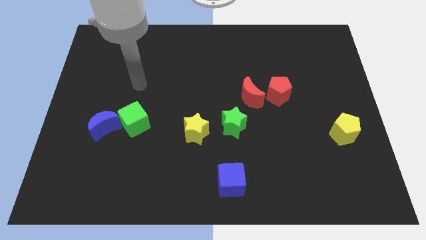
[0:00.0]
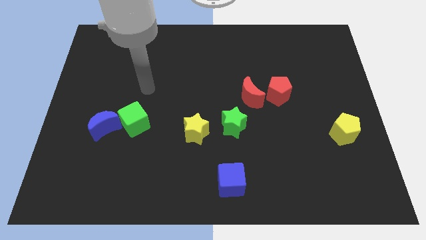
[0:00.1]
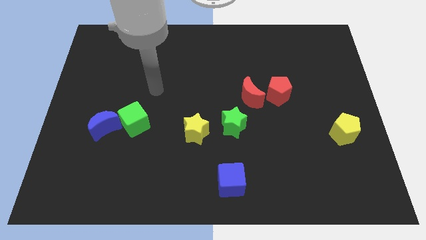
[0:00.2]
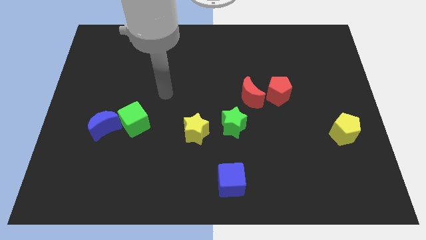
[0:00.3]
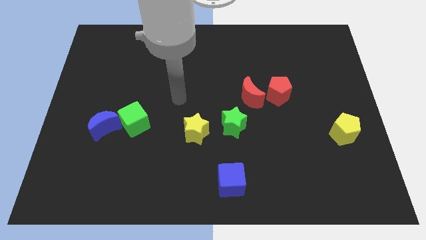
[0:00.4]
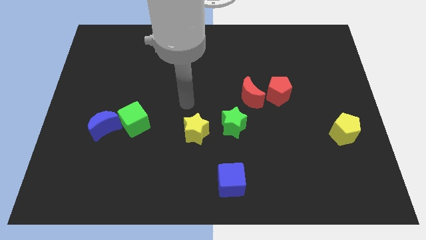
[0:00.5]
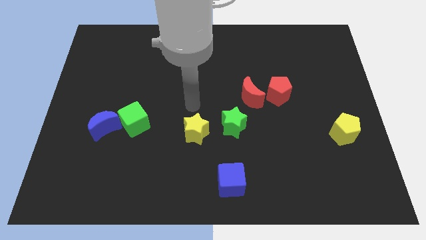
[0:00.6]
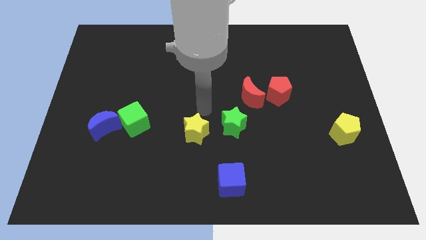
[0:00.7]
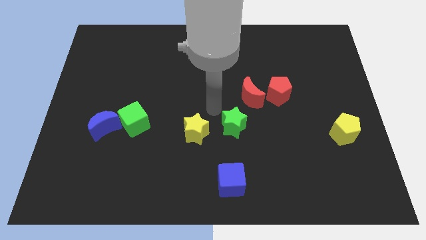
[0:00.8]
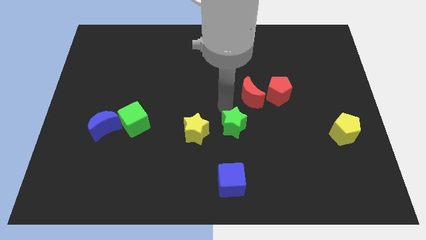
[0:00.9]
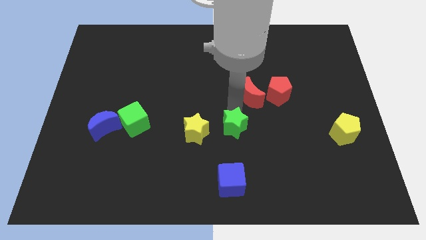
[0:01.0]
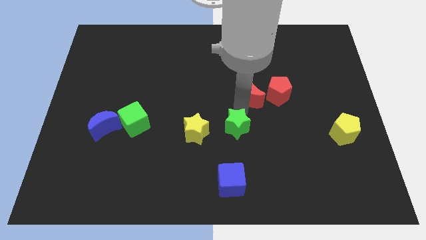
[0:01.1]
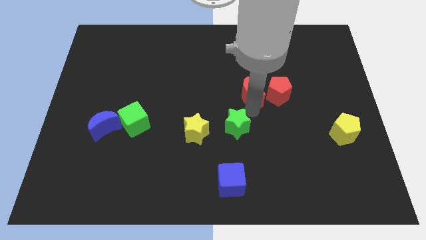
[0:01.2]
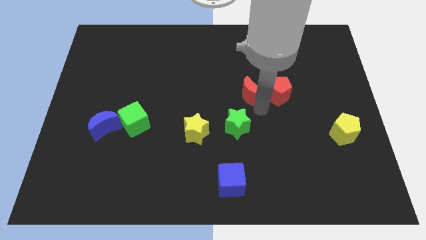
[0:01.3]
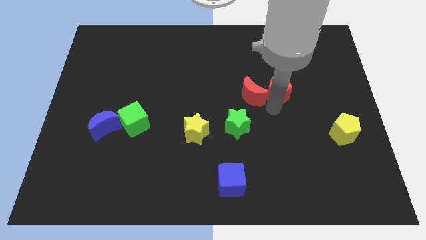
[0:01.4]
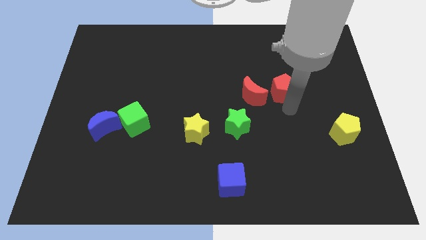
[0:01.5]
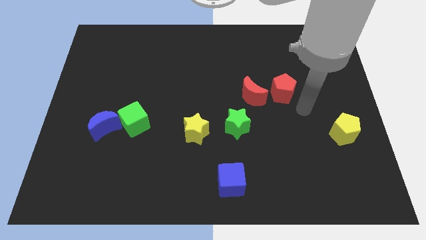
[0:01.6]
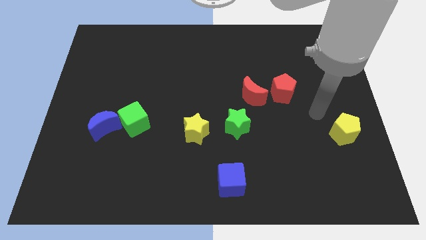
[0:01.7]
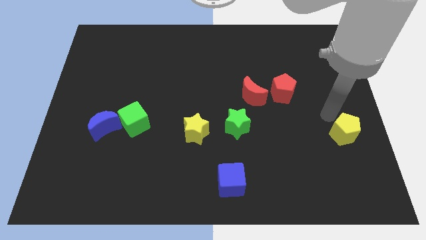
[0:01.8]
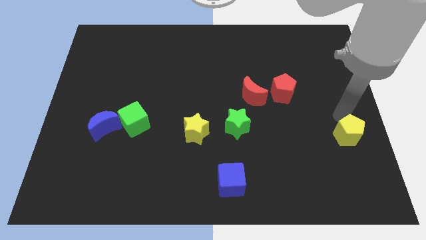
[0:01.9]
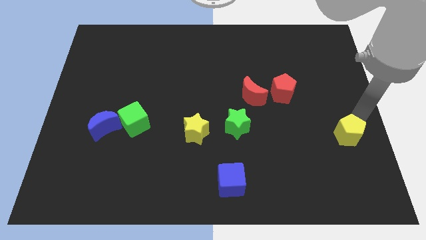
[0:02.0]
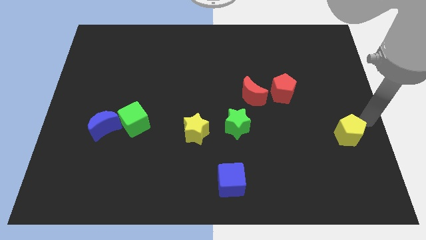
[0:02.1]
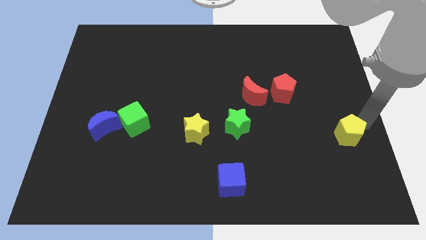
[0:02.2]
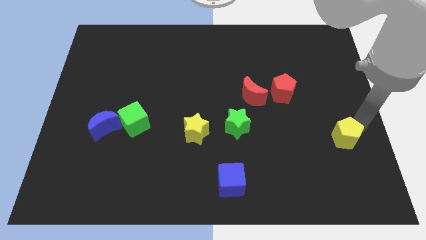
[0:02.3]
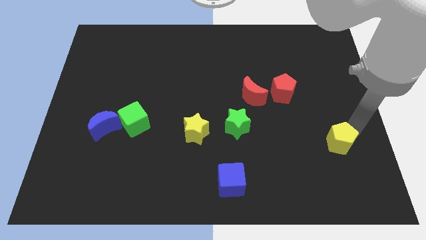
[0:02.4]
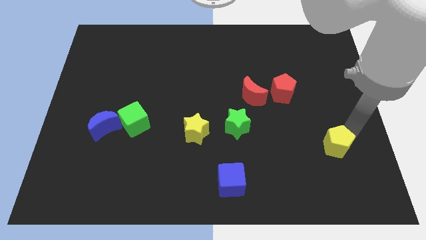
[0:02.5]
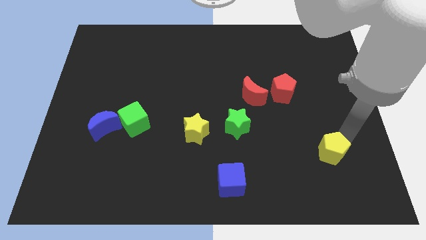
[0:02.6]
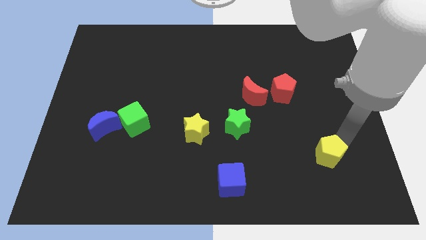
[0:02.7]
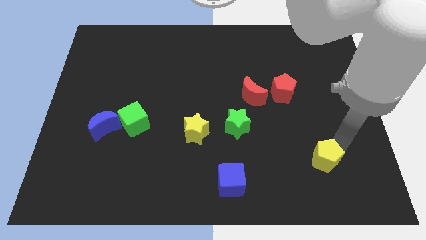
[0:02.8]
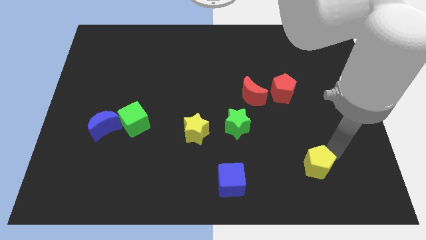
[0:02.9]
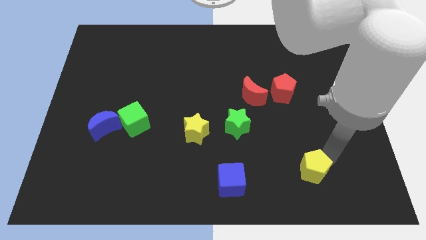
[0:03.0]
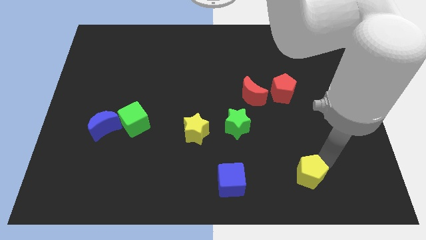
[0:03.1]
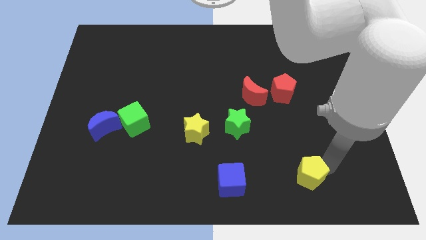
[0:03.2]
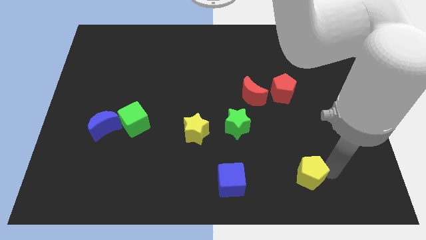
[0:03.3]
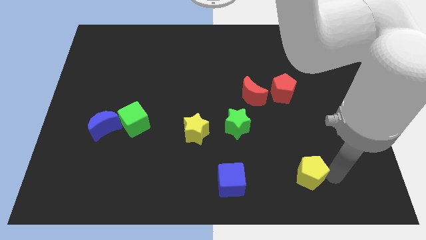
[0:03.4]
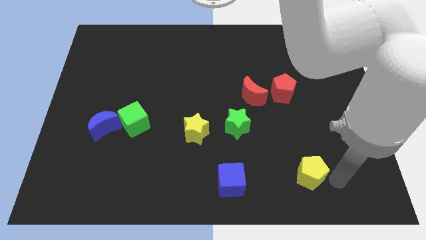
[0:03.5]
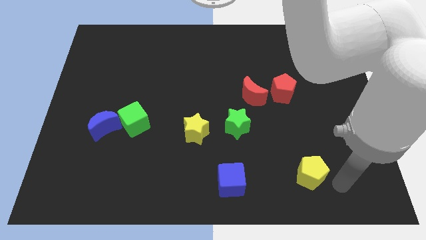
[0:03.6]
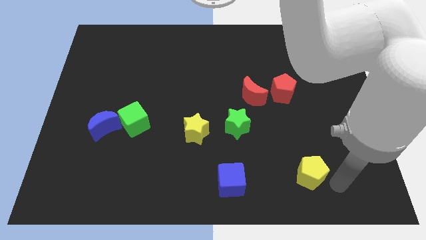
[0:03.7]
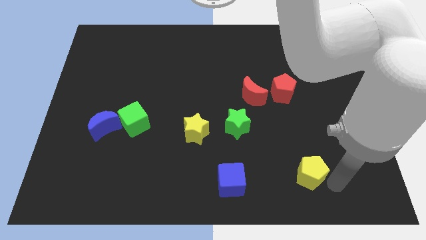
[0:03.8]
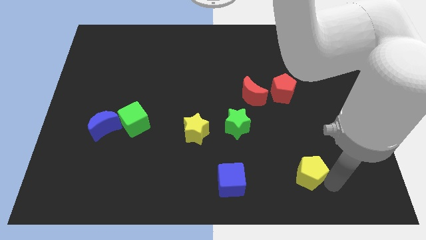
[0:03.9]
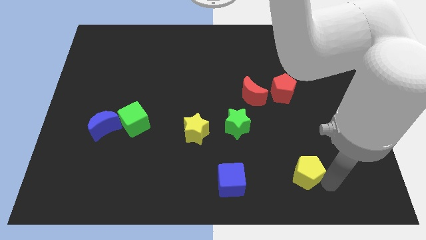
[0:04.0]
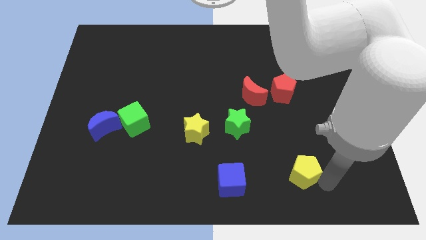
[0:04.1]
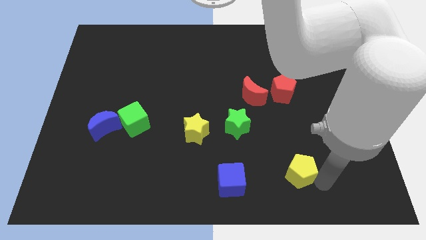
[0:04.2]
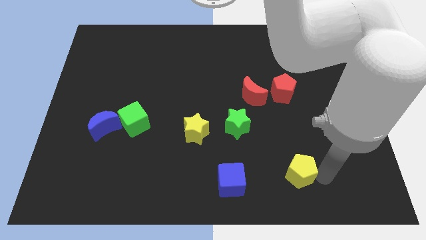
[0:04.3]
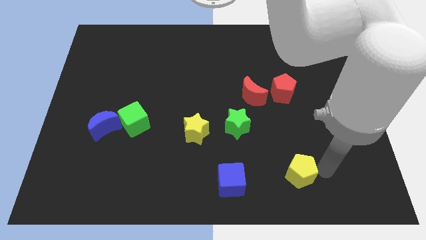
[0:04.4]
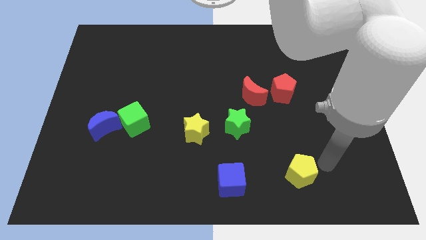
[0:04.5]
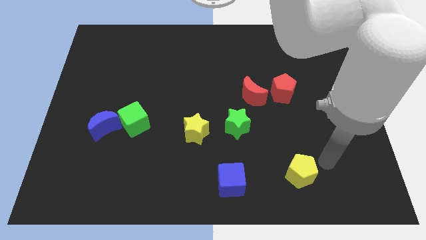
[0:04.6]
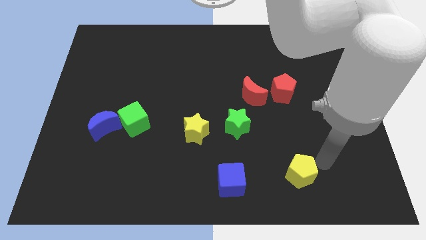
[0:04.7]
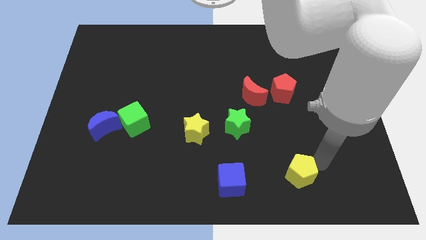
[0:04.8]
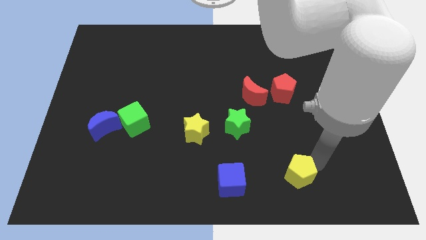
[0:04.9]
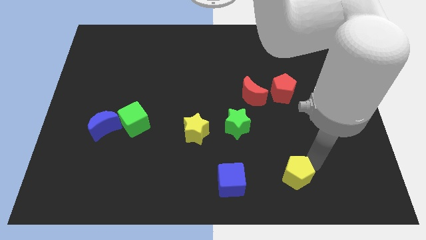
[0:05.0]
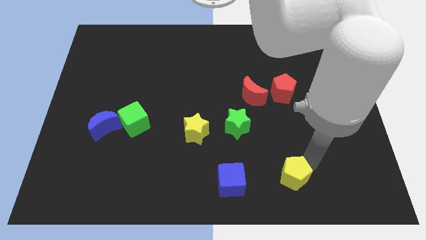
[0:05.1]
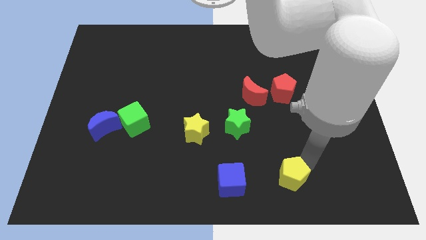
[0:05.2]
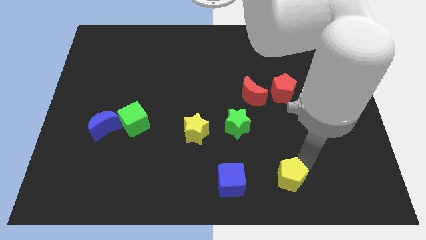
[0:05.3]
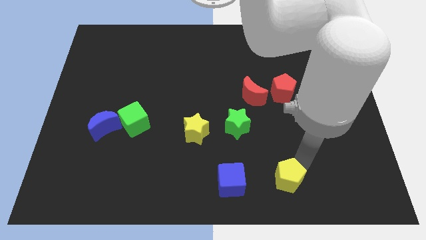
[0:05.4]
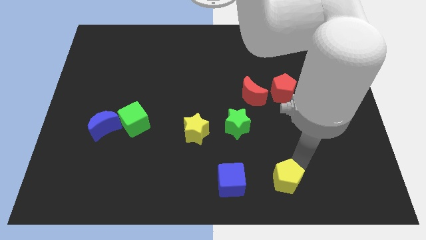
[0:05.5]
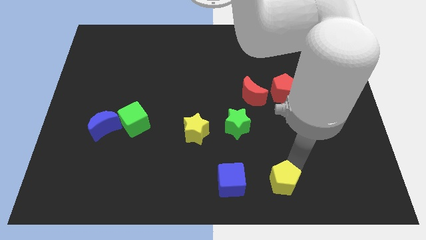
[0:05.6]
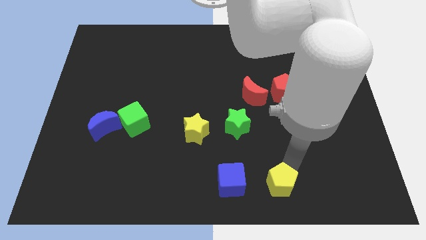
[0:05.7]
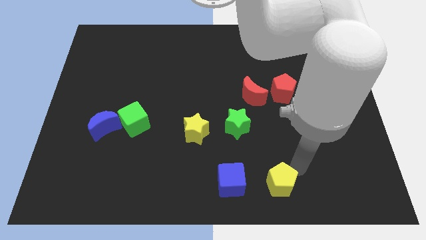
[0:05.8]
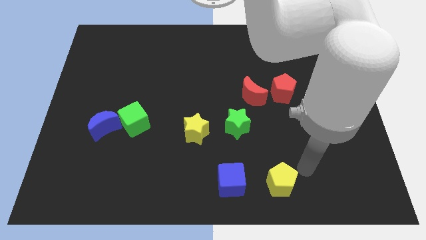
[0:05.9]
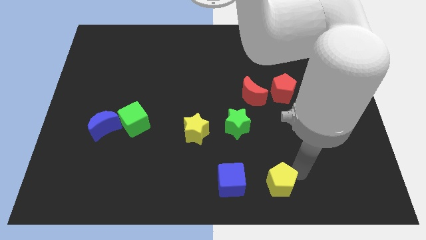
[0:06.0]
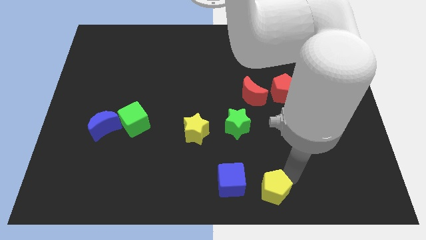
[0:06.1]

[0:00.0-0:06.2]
slide the yellow pentagon to the bottom

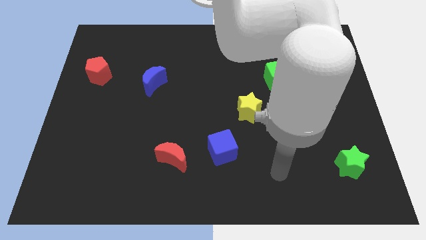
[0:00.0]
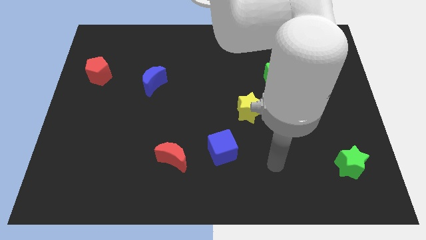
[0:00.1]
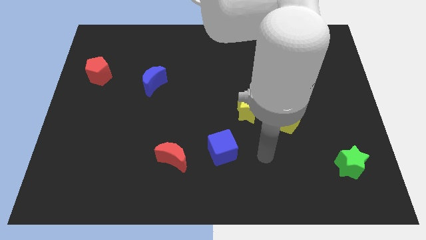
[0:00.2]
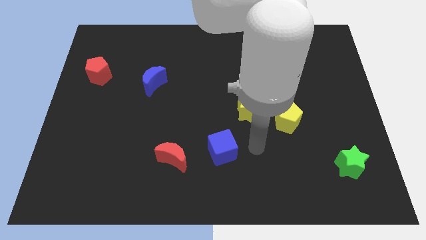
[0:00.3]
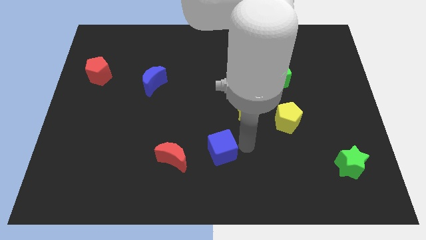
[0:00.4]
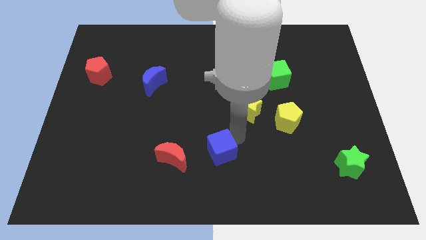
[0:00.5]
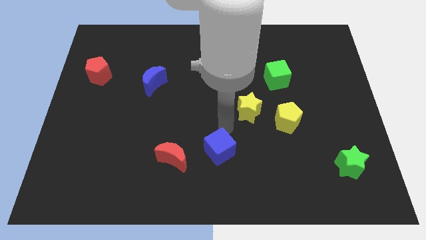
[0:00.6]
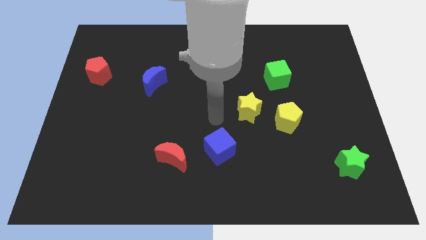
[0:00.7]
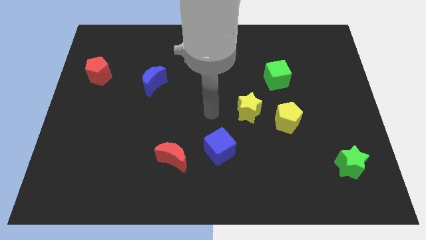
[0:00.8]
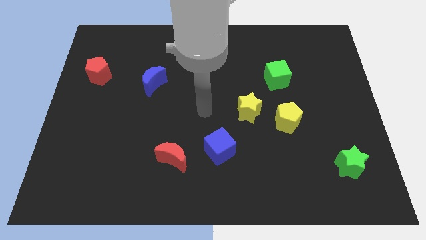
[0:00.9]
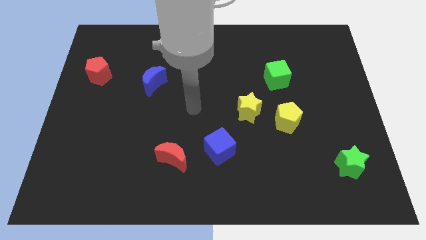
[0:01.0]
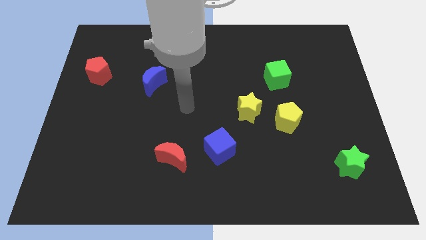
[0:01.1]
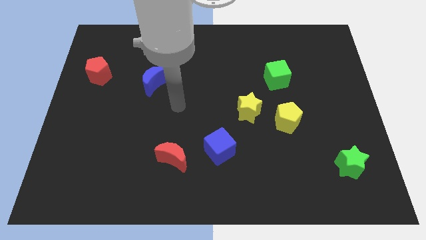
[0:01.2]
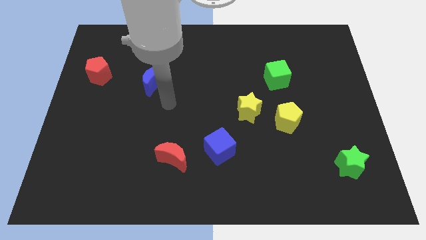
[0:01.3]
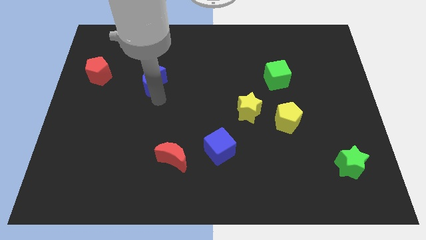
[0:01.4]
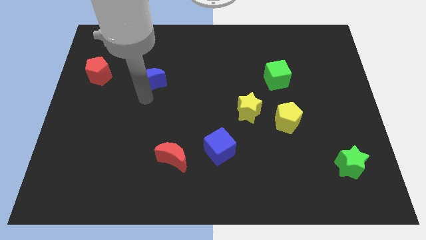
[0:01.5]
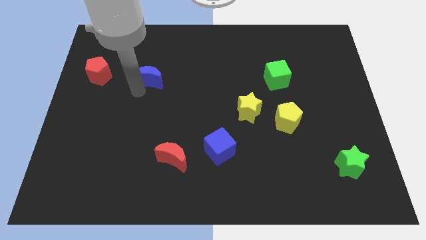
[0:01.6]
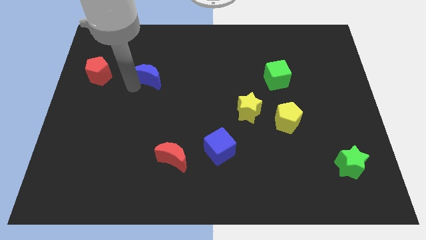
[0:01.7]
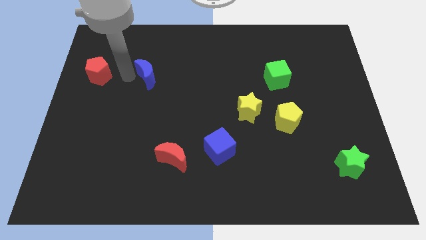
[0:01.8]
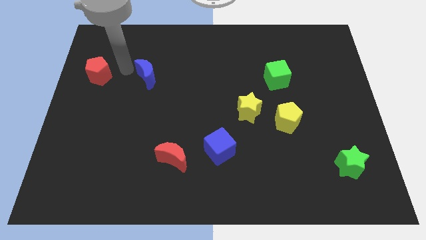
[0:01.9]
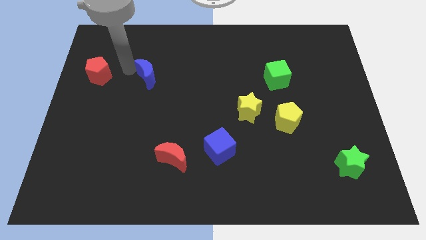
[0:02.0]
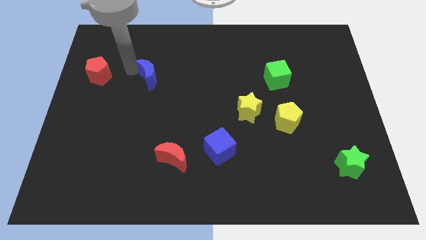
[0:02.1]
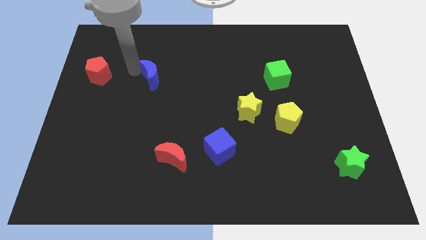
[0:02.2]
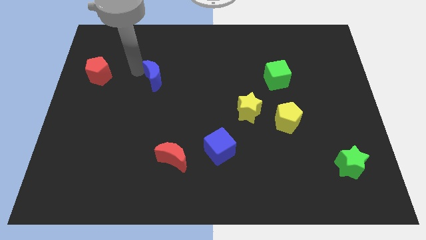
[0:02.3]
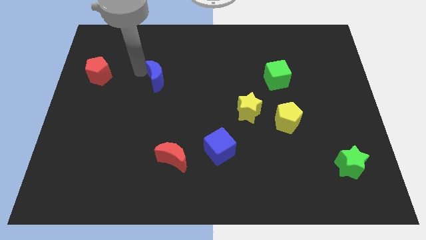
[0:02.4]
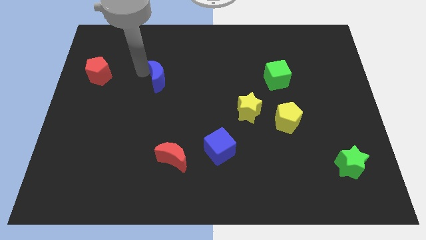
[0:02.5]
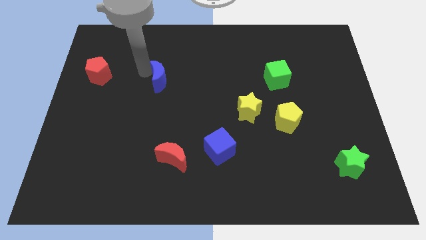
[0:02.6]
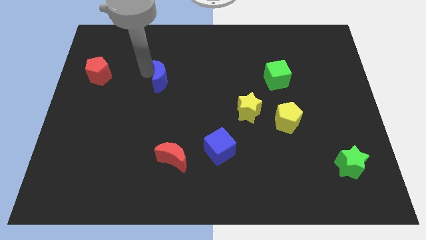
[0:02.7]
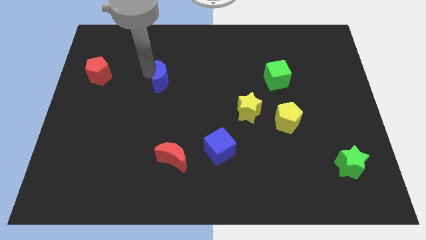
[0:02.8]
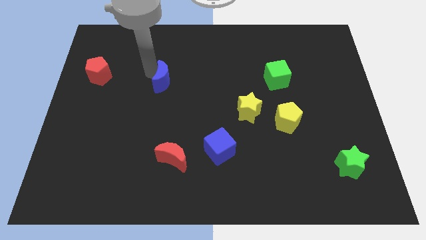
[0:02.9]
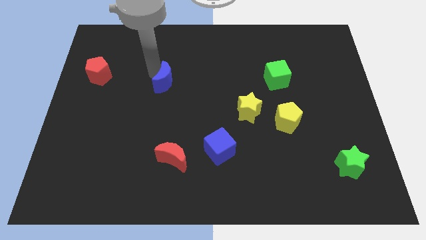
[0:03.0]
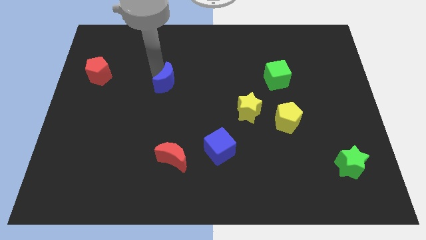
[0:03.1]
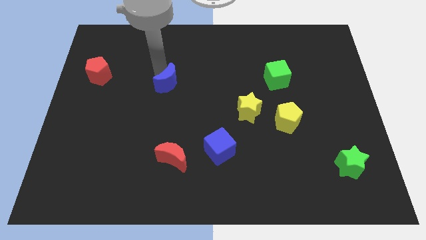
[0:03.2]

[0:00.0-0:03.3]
move the blue moon to the middle
